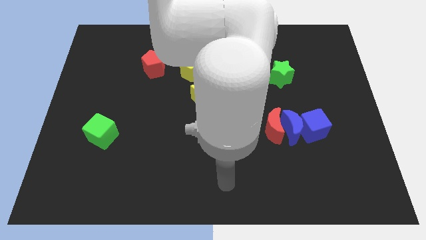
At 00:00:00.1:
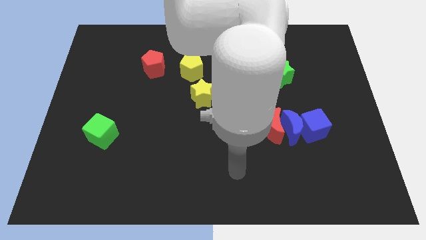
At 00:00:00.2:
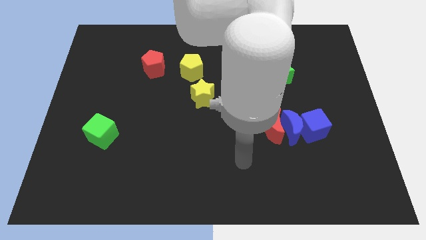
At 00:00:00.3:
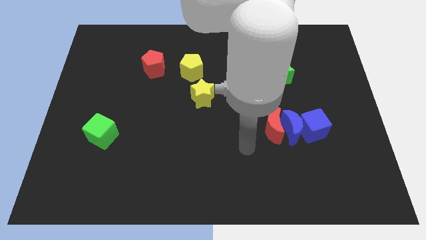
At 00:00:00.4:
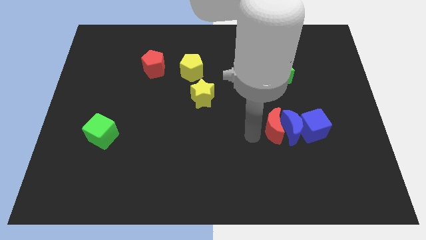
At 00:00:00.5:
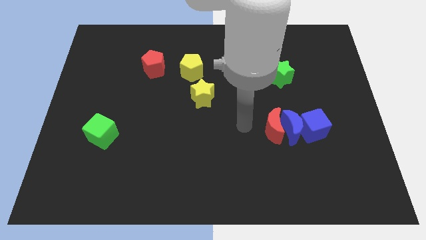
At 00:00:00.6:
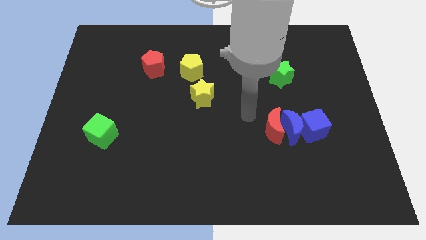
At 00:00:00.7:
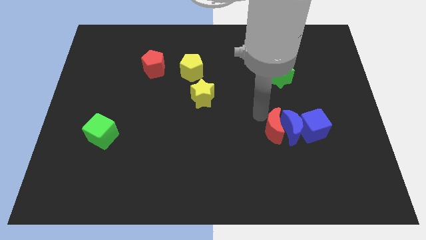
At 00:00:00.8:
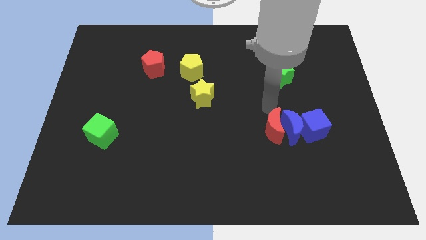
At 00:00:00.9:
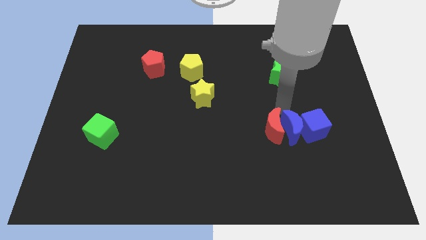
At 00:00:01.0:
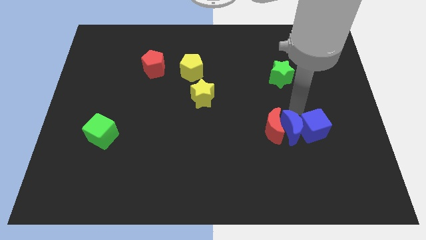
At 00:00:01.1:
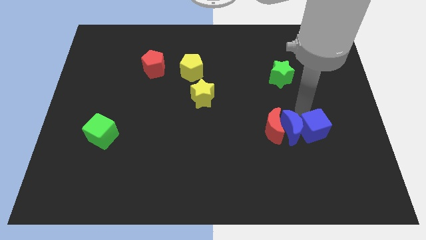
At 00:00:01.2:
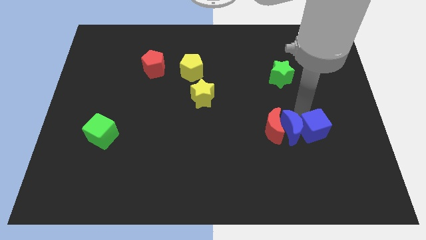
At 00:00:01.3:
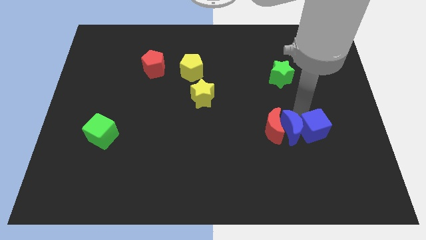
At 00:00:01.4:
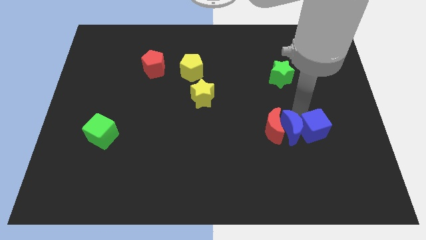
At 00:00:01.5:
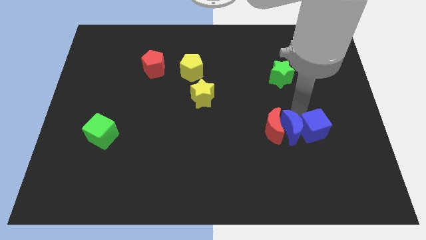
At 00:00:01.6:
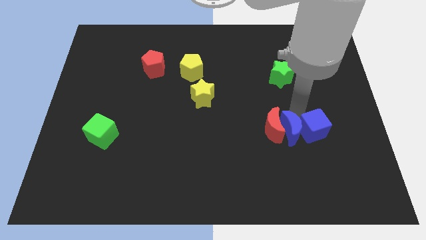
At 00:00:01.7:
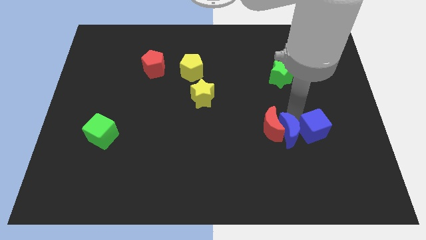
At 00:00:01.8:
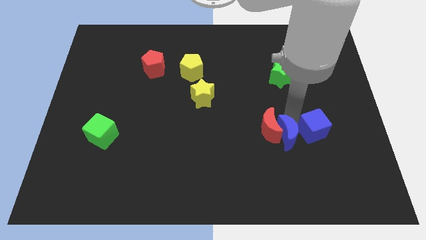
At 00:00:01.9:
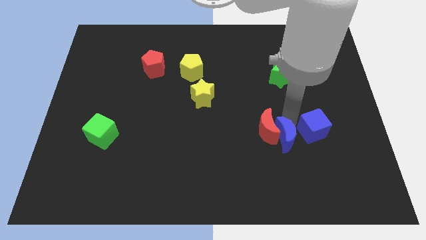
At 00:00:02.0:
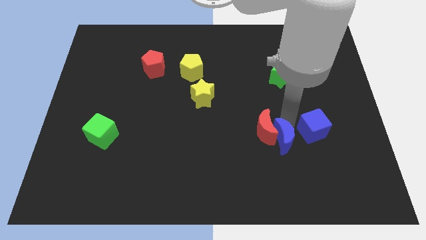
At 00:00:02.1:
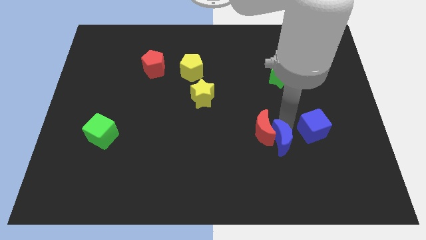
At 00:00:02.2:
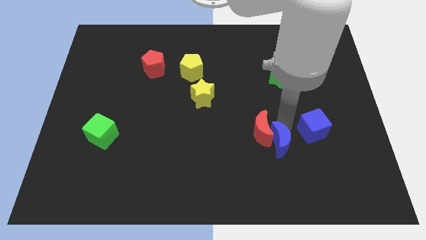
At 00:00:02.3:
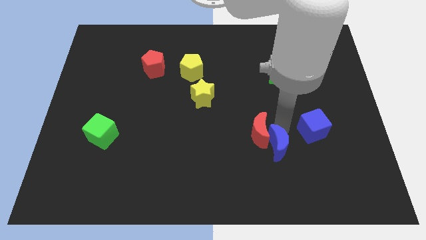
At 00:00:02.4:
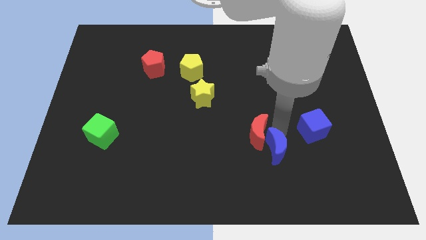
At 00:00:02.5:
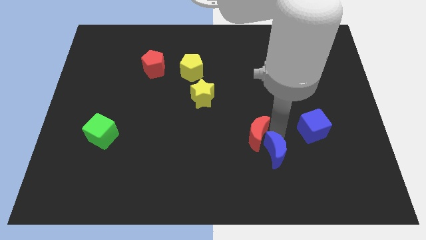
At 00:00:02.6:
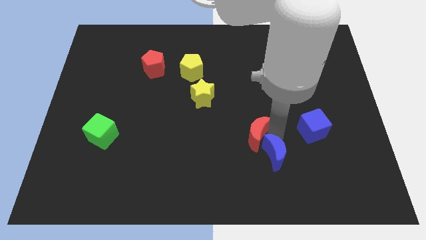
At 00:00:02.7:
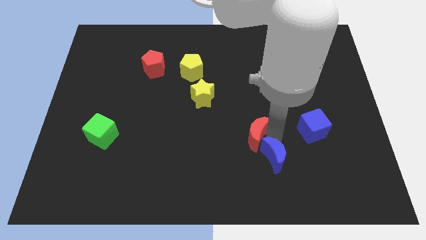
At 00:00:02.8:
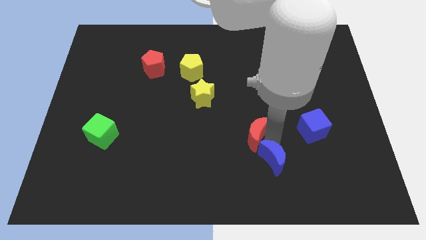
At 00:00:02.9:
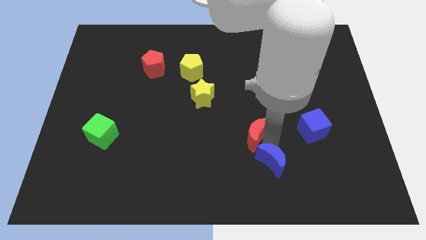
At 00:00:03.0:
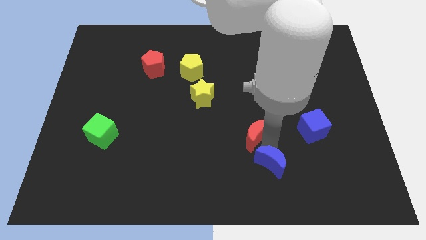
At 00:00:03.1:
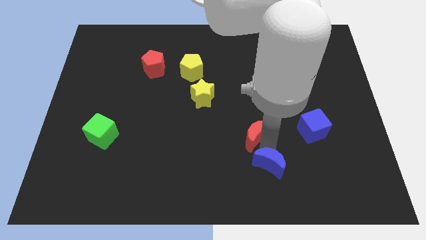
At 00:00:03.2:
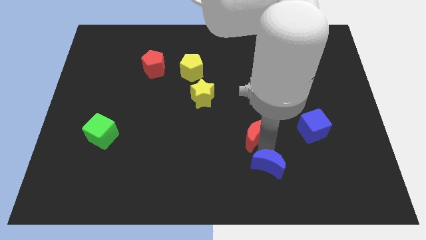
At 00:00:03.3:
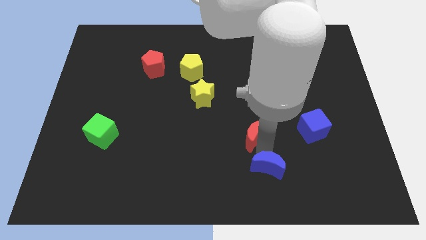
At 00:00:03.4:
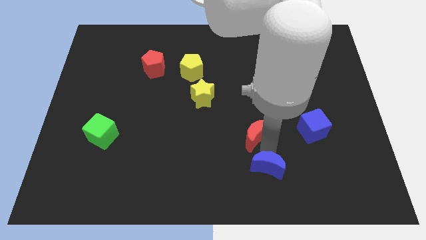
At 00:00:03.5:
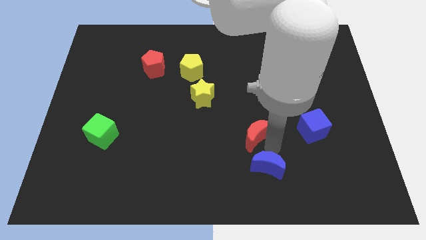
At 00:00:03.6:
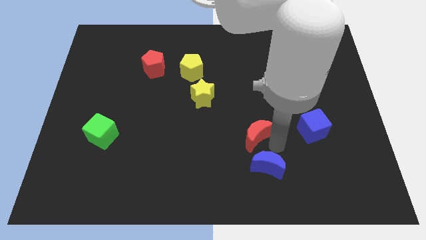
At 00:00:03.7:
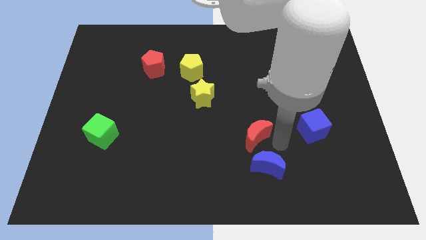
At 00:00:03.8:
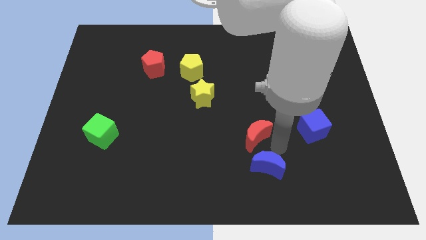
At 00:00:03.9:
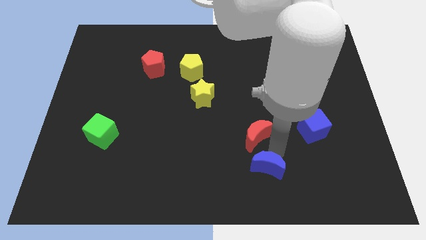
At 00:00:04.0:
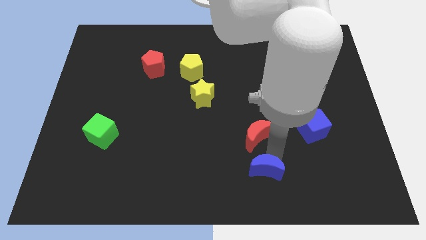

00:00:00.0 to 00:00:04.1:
separate the blue moon from the red moon and blue cube

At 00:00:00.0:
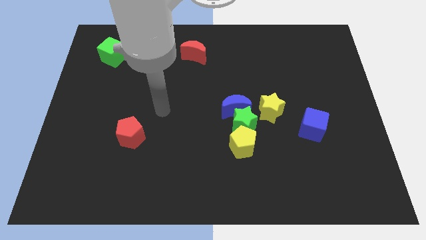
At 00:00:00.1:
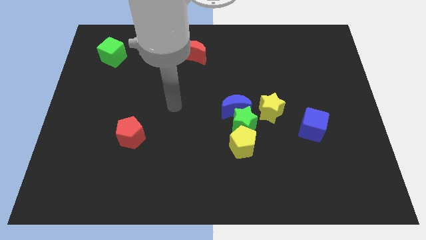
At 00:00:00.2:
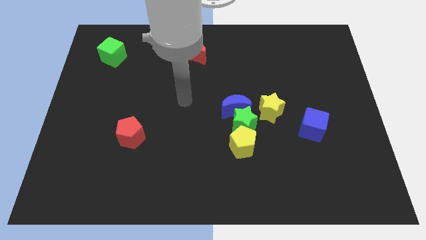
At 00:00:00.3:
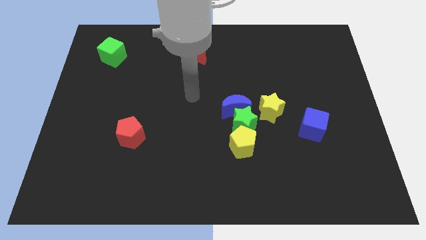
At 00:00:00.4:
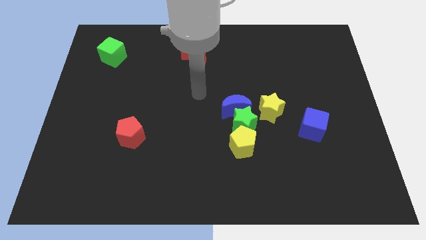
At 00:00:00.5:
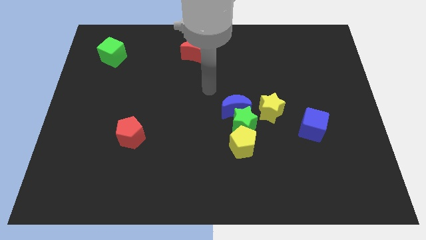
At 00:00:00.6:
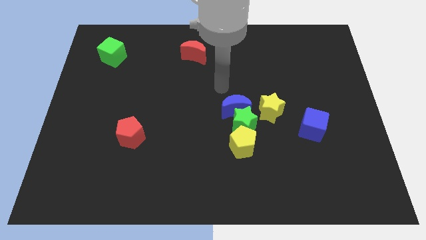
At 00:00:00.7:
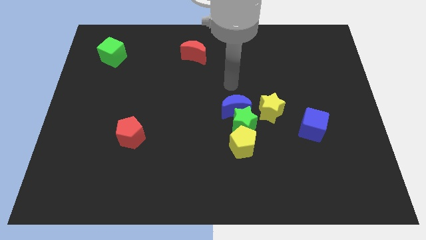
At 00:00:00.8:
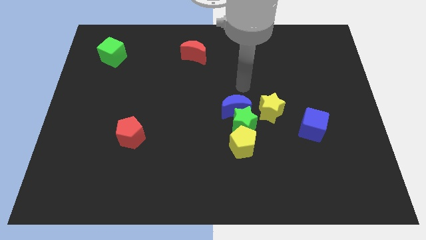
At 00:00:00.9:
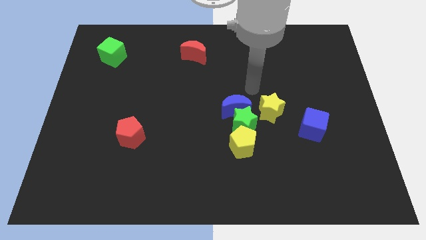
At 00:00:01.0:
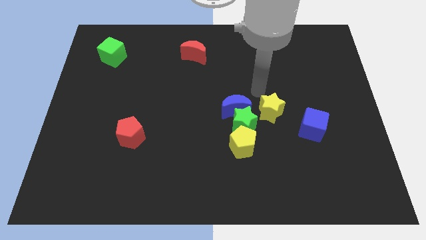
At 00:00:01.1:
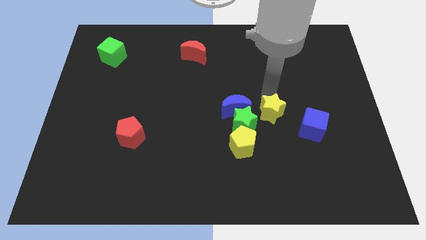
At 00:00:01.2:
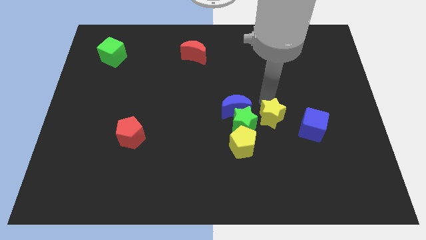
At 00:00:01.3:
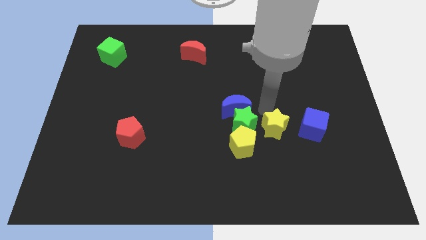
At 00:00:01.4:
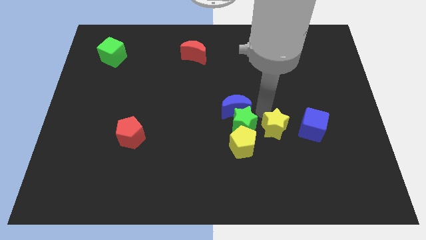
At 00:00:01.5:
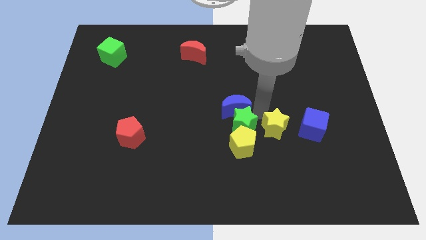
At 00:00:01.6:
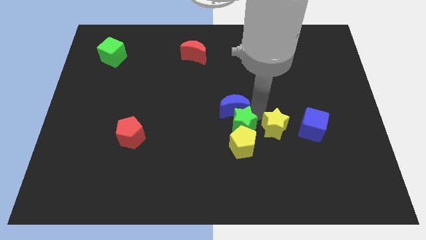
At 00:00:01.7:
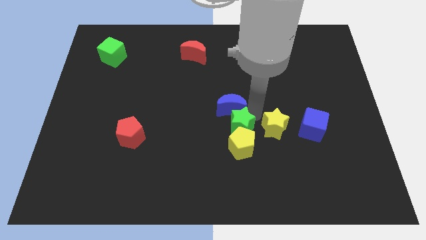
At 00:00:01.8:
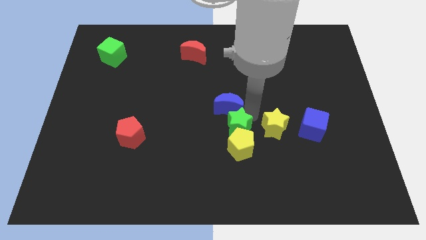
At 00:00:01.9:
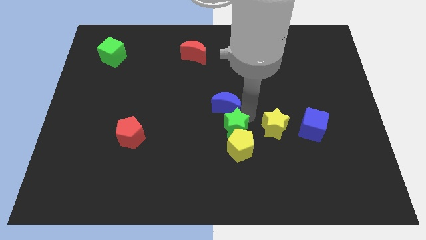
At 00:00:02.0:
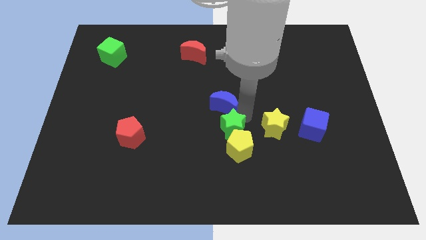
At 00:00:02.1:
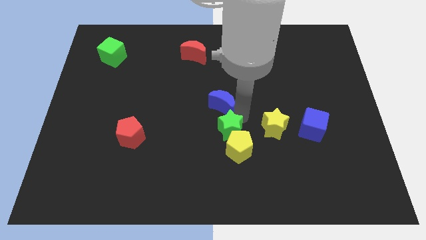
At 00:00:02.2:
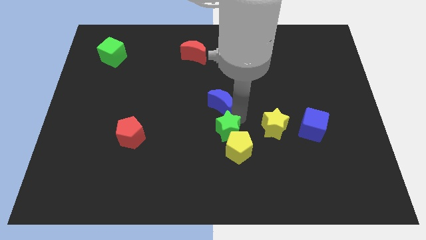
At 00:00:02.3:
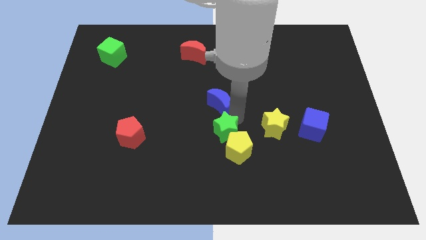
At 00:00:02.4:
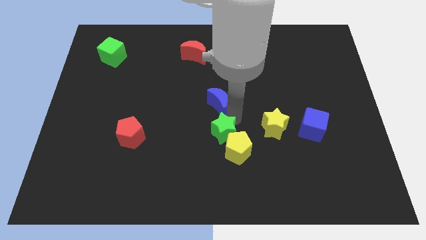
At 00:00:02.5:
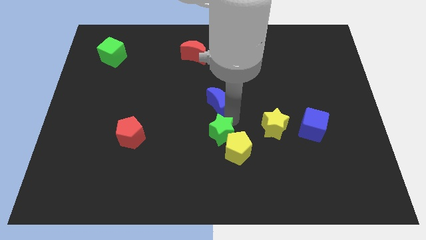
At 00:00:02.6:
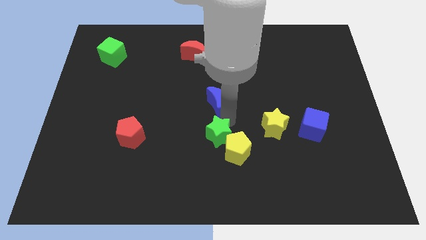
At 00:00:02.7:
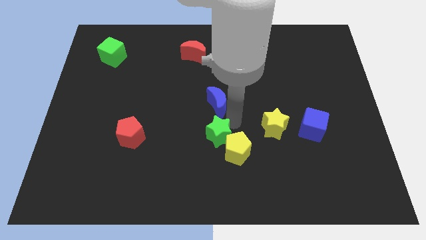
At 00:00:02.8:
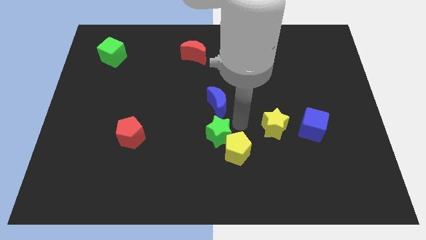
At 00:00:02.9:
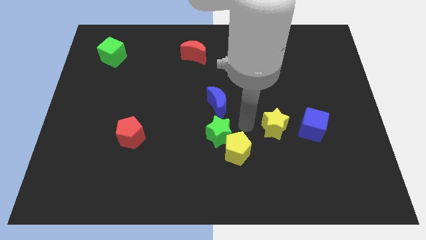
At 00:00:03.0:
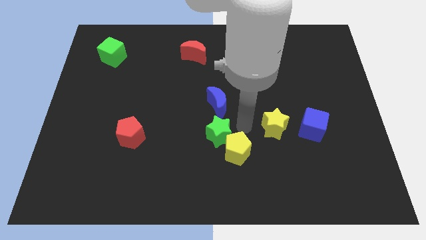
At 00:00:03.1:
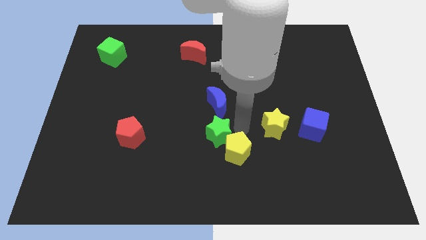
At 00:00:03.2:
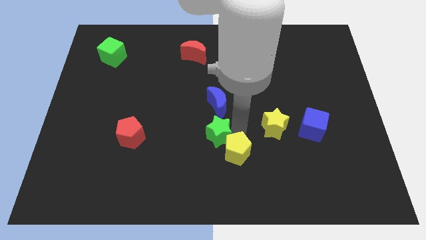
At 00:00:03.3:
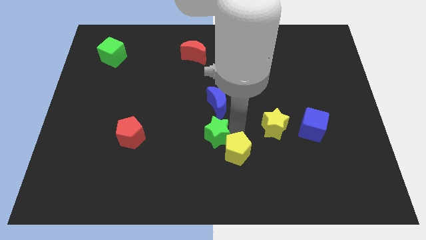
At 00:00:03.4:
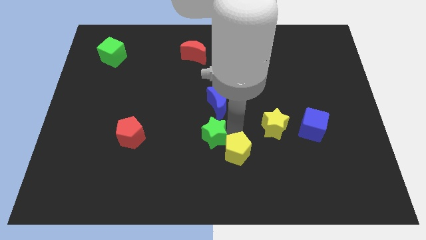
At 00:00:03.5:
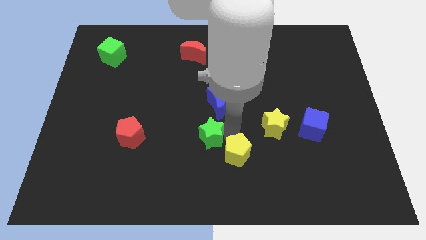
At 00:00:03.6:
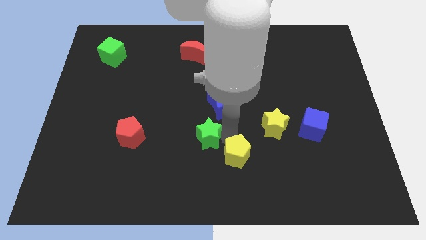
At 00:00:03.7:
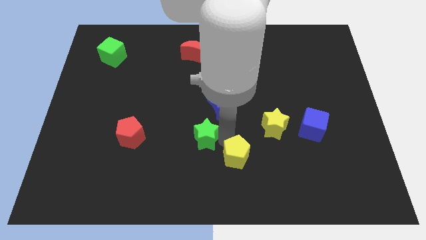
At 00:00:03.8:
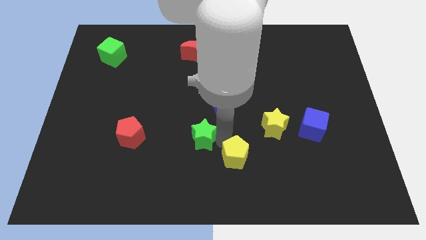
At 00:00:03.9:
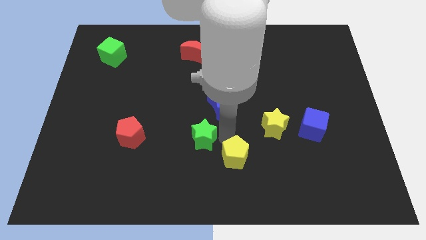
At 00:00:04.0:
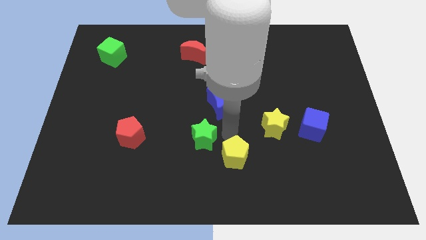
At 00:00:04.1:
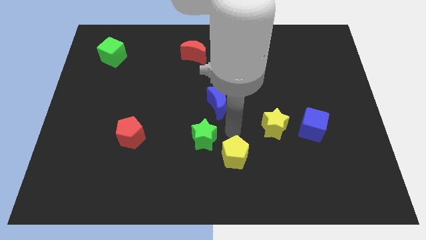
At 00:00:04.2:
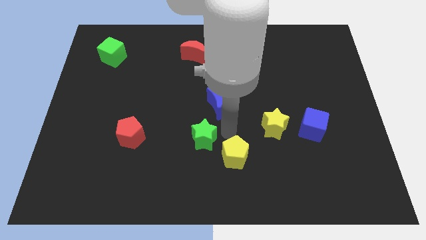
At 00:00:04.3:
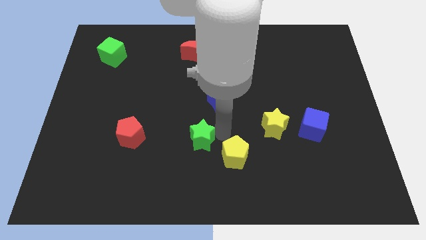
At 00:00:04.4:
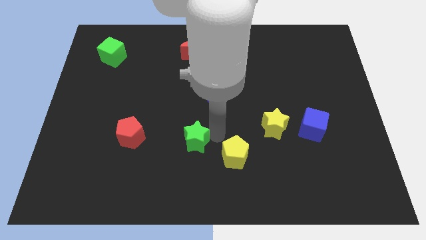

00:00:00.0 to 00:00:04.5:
pull the green star apart from the blue moon, yellow pentagon, and yellow star

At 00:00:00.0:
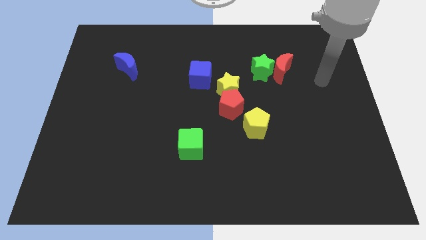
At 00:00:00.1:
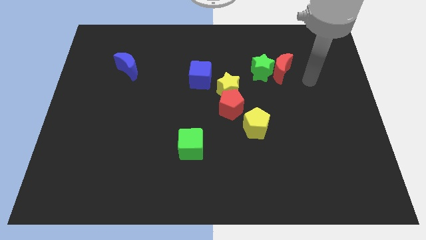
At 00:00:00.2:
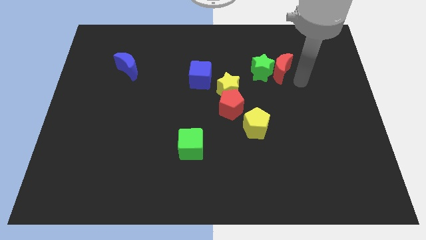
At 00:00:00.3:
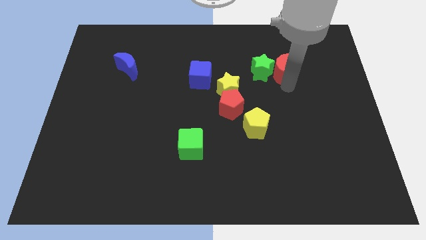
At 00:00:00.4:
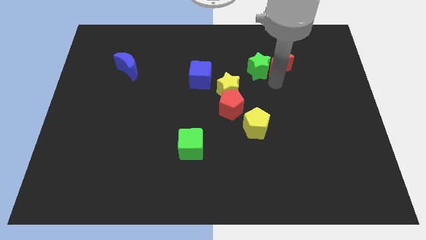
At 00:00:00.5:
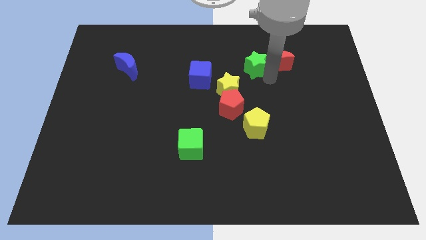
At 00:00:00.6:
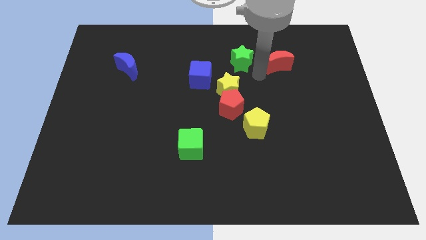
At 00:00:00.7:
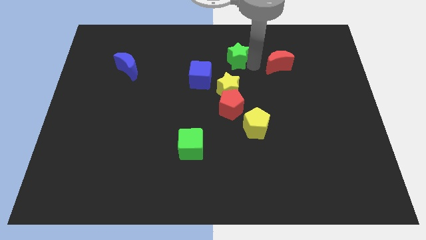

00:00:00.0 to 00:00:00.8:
pull the red moon apart from the green star
